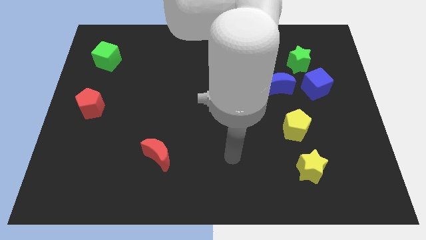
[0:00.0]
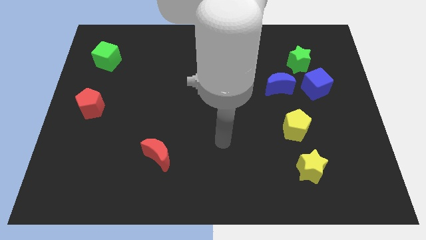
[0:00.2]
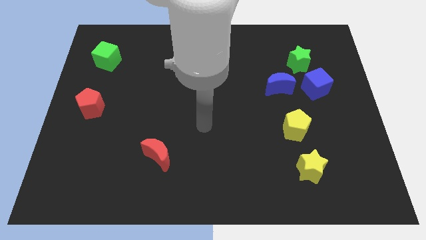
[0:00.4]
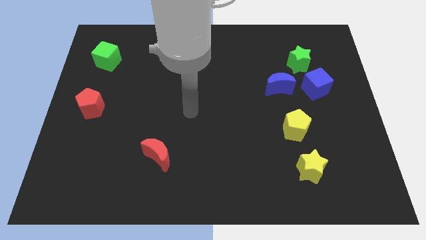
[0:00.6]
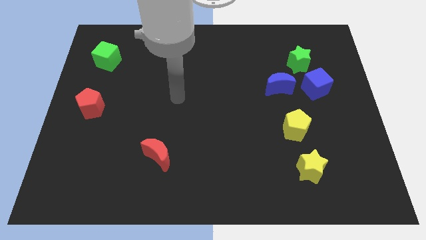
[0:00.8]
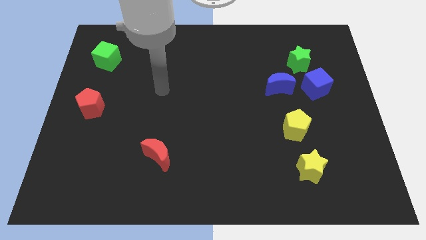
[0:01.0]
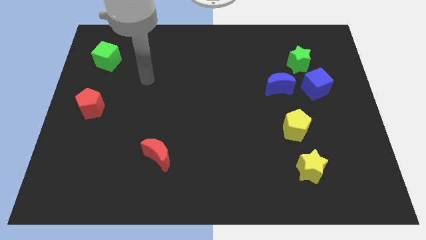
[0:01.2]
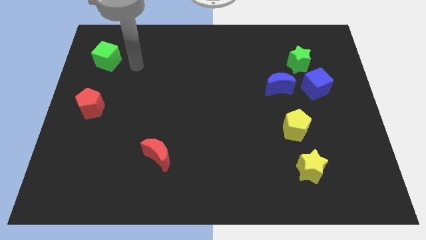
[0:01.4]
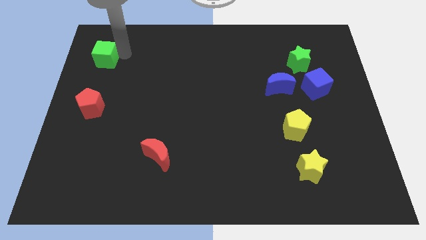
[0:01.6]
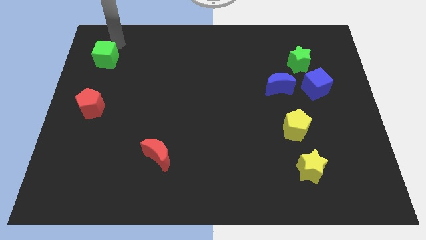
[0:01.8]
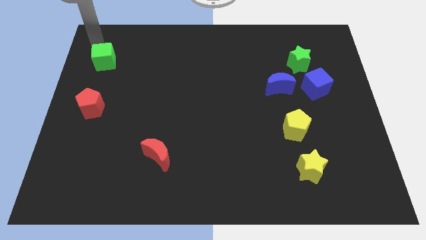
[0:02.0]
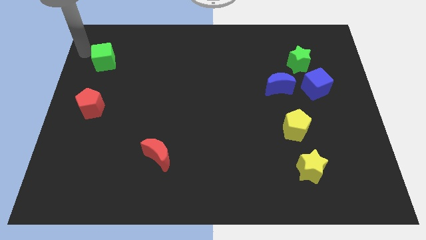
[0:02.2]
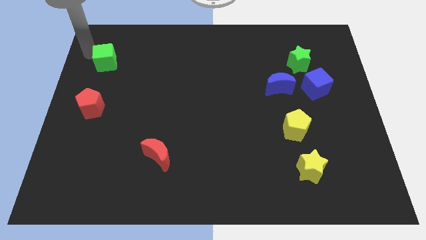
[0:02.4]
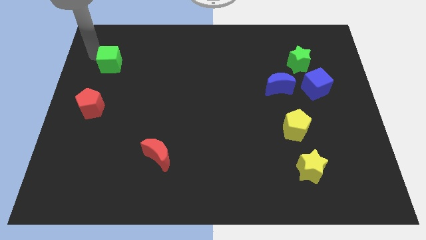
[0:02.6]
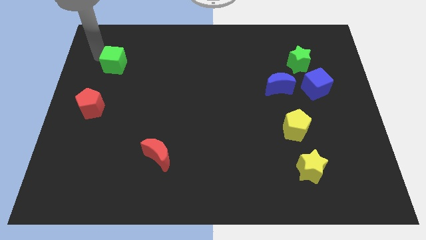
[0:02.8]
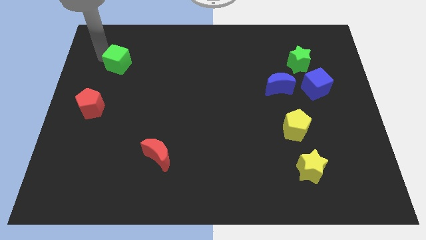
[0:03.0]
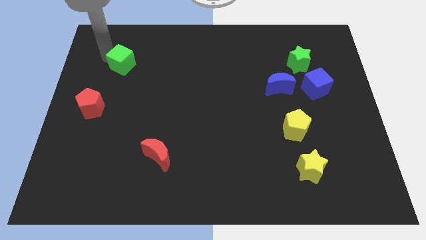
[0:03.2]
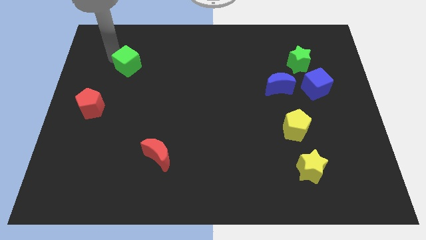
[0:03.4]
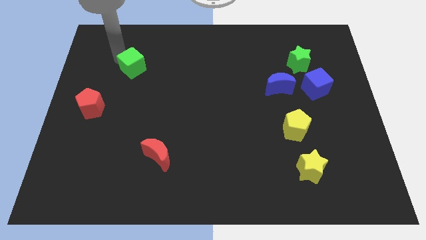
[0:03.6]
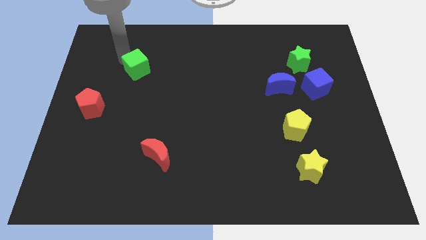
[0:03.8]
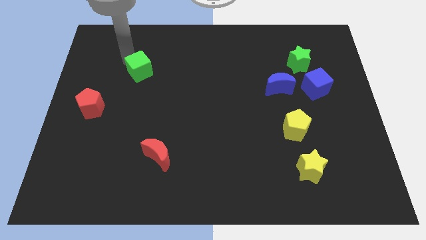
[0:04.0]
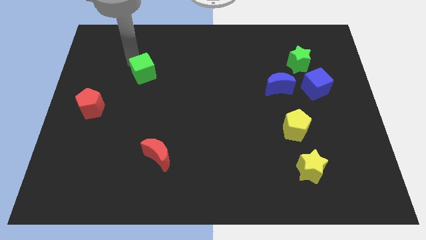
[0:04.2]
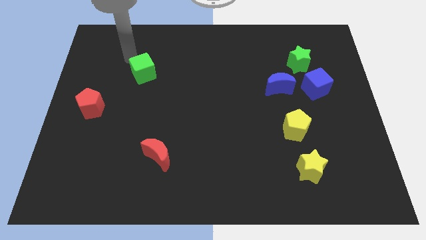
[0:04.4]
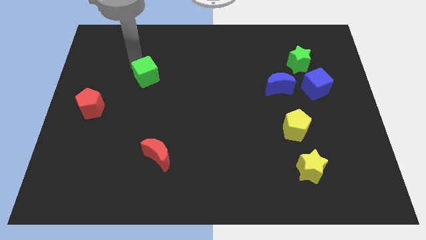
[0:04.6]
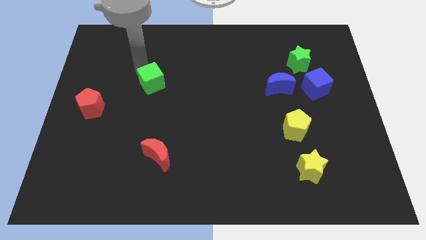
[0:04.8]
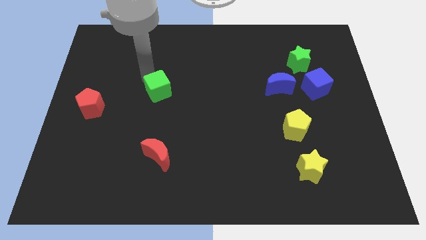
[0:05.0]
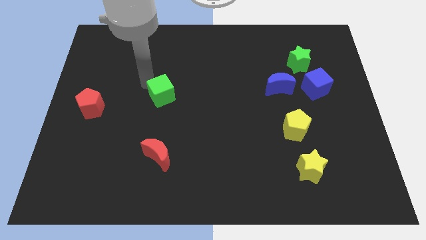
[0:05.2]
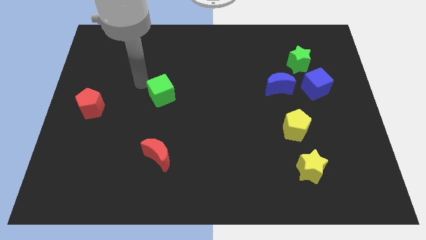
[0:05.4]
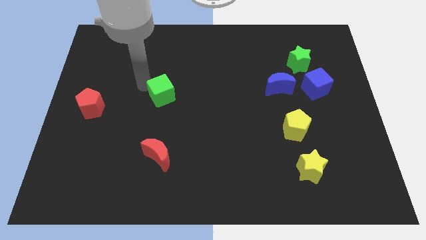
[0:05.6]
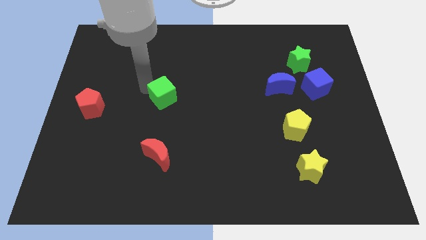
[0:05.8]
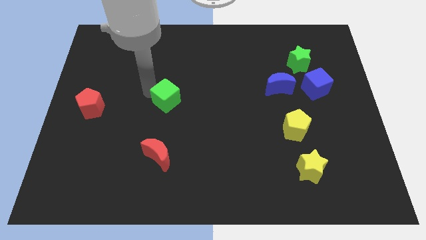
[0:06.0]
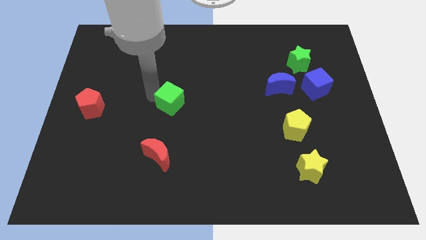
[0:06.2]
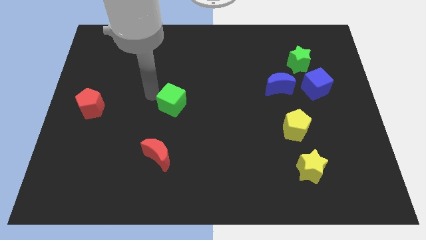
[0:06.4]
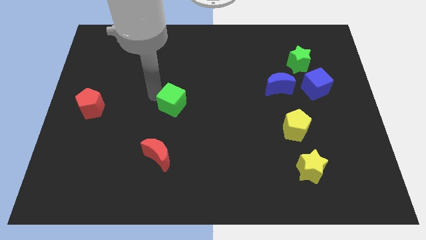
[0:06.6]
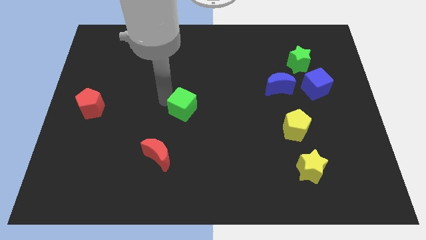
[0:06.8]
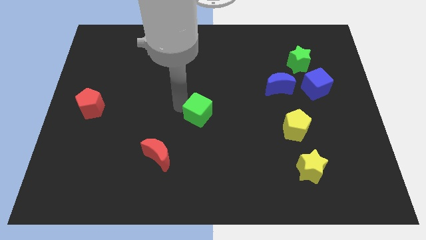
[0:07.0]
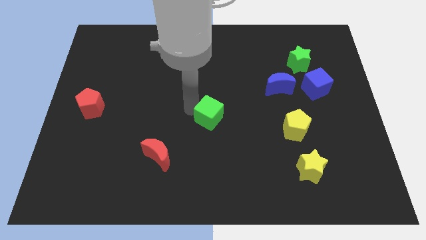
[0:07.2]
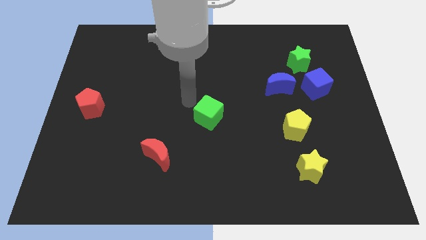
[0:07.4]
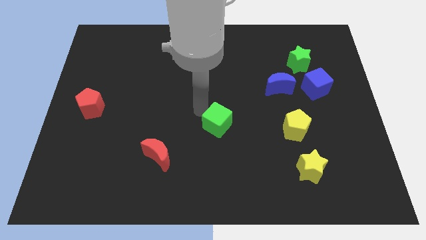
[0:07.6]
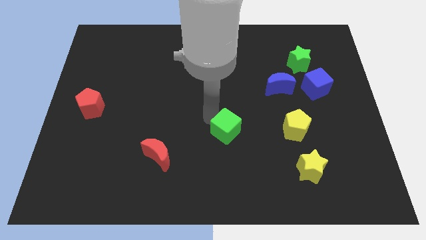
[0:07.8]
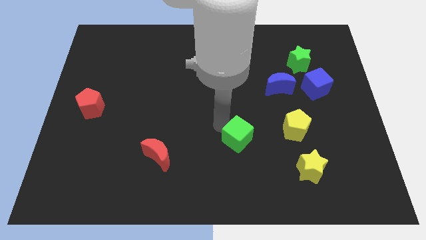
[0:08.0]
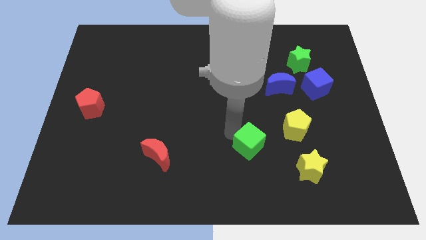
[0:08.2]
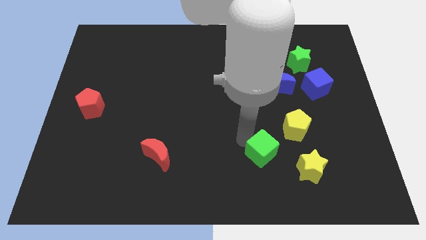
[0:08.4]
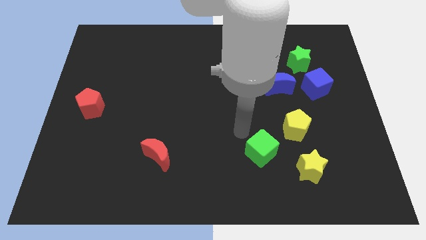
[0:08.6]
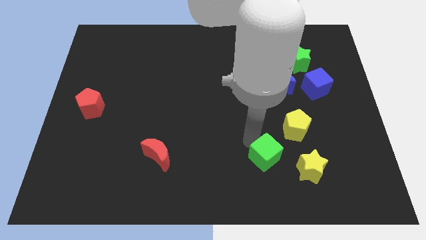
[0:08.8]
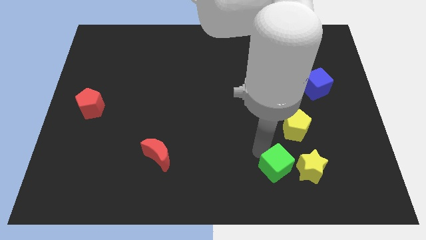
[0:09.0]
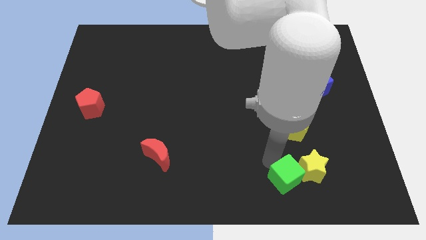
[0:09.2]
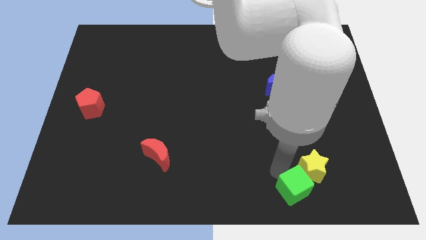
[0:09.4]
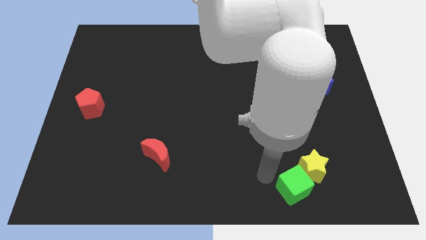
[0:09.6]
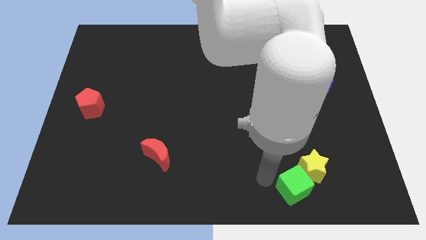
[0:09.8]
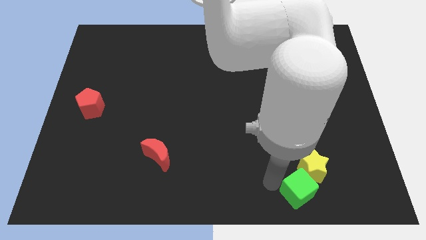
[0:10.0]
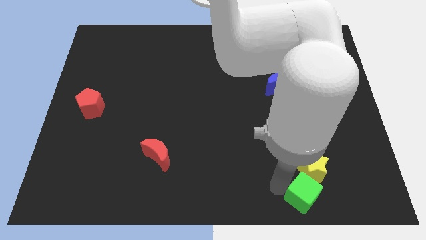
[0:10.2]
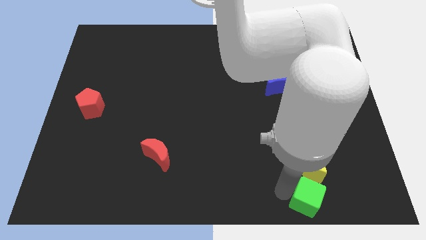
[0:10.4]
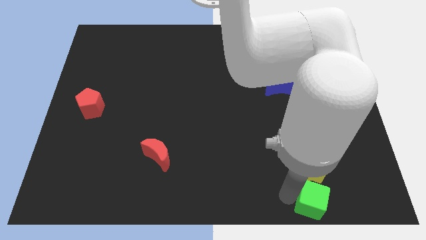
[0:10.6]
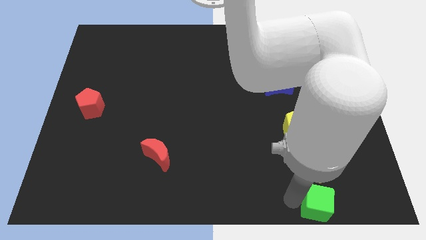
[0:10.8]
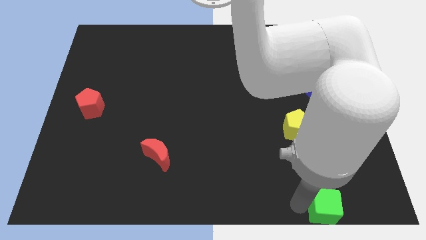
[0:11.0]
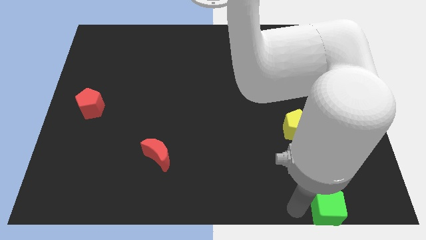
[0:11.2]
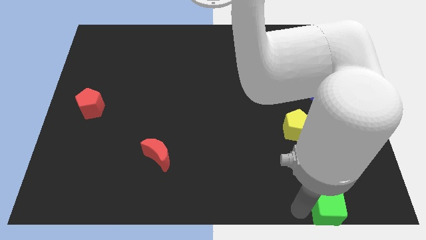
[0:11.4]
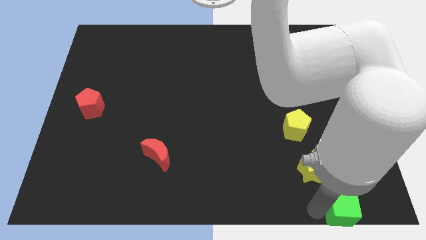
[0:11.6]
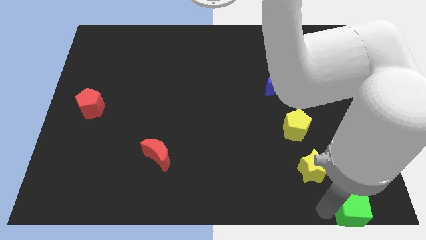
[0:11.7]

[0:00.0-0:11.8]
push the green cube to the bottom right of the board

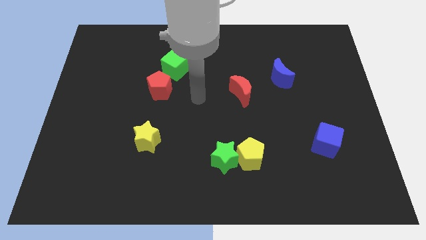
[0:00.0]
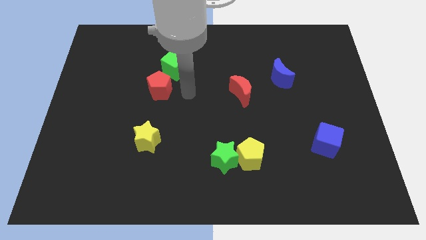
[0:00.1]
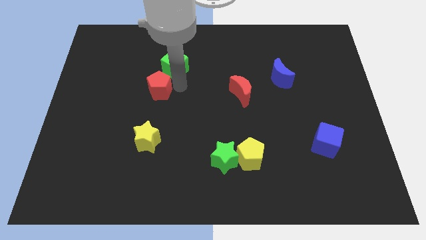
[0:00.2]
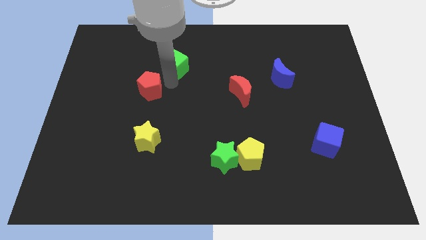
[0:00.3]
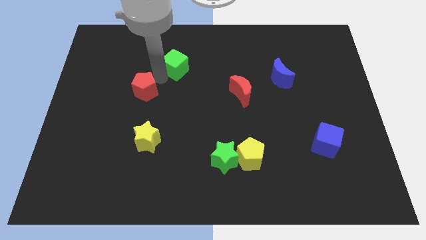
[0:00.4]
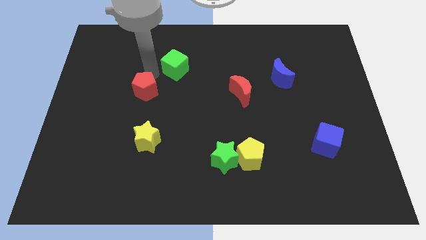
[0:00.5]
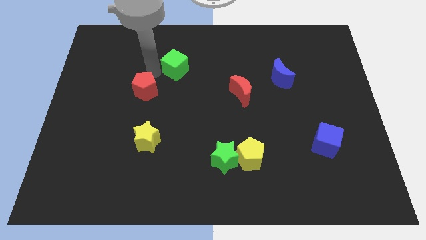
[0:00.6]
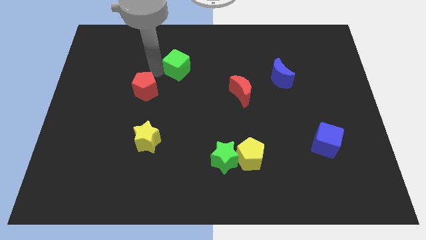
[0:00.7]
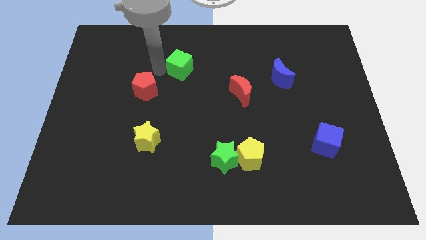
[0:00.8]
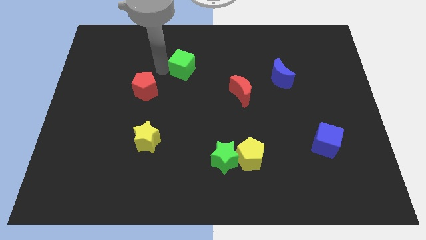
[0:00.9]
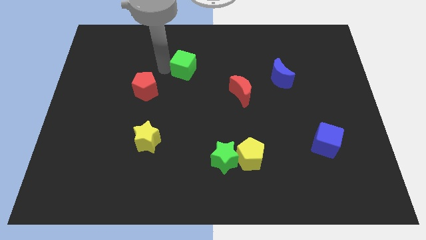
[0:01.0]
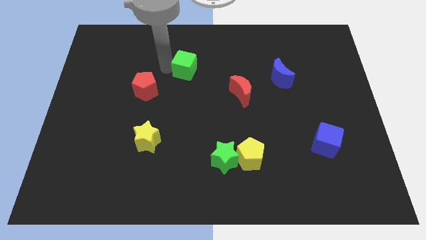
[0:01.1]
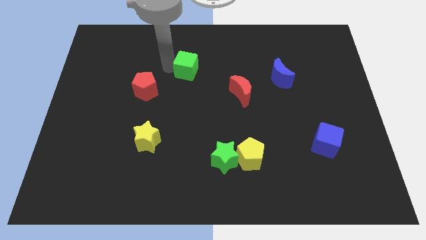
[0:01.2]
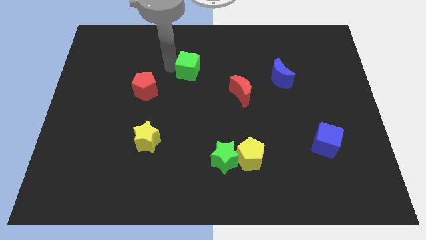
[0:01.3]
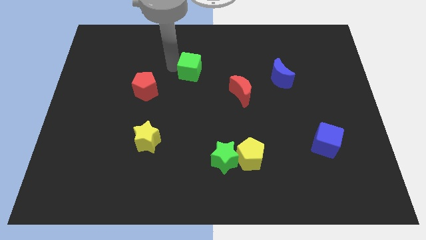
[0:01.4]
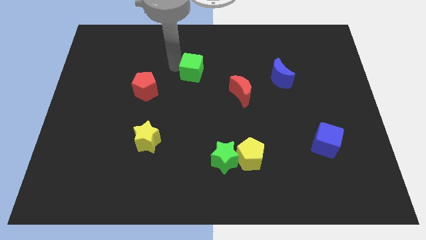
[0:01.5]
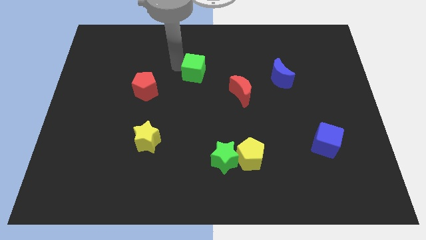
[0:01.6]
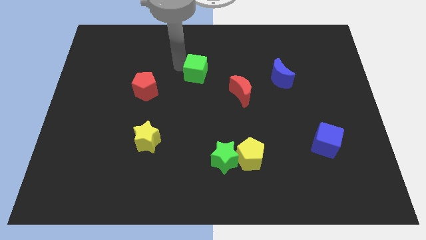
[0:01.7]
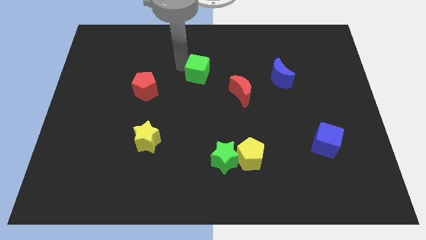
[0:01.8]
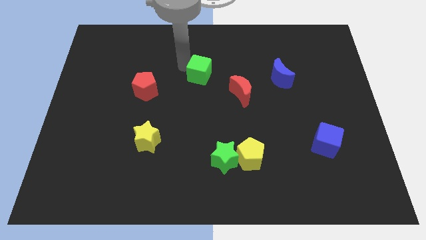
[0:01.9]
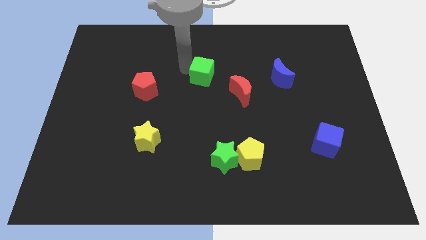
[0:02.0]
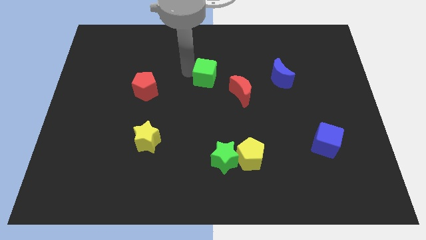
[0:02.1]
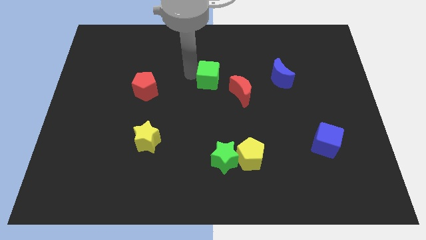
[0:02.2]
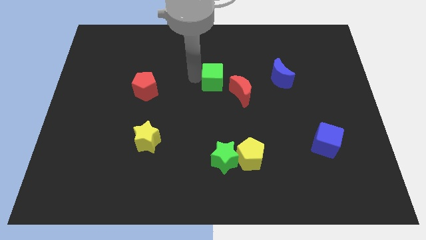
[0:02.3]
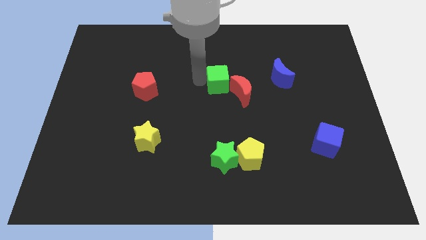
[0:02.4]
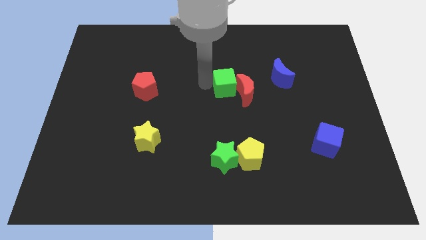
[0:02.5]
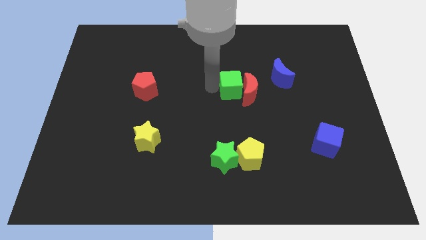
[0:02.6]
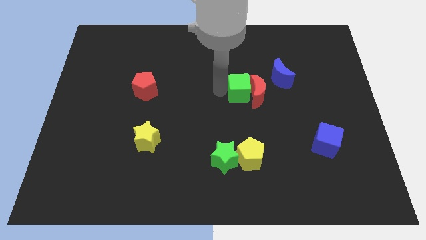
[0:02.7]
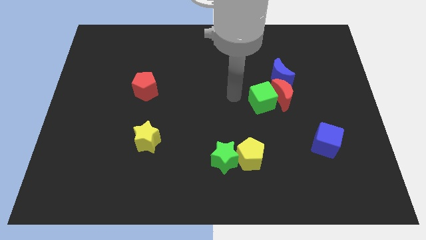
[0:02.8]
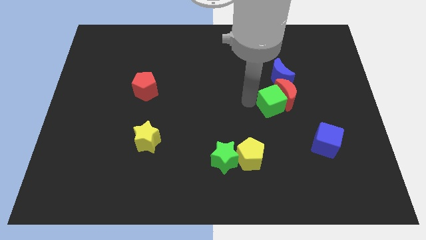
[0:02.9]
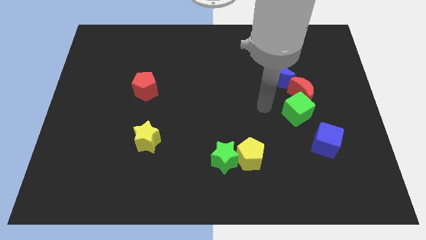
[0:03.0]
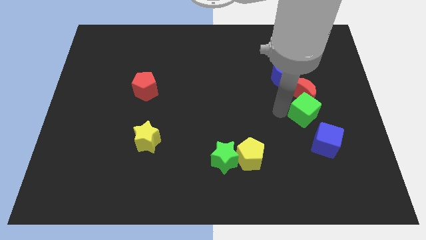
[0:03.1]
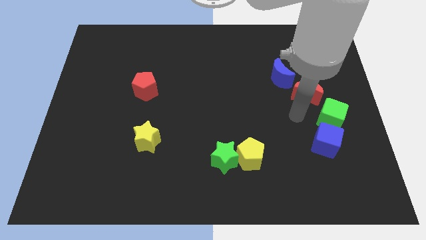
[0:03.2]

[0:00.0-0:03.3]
slide the green cube to the right side
